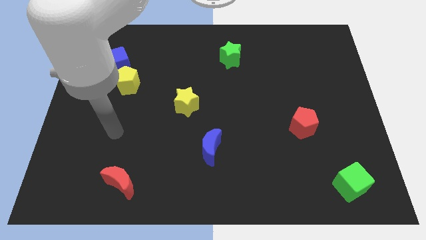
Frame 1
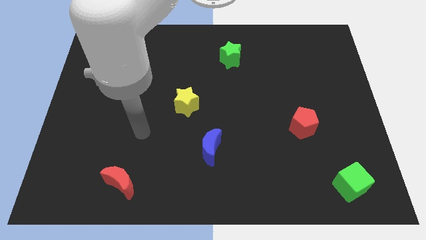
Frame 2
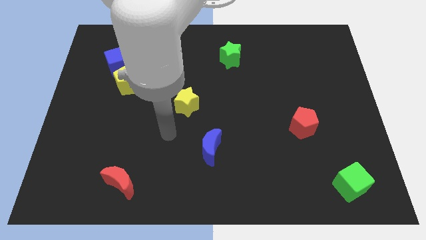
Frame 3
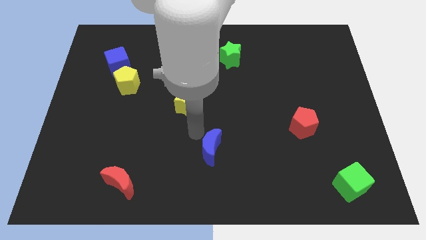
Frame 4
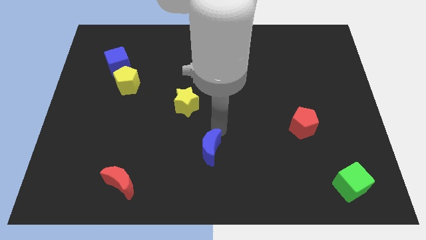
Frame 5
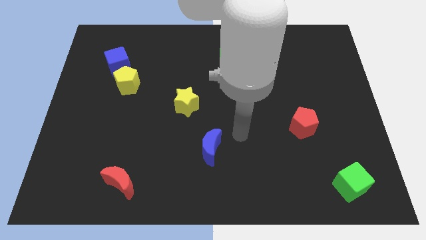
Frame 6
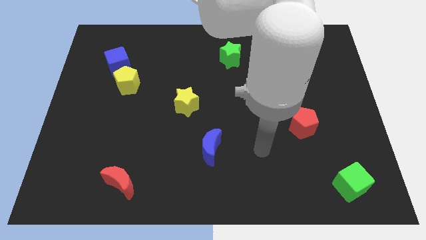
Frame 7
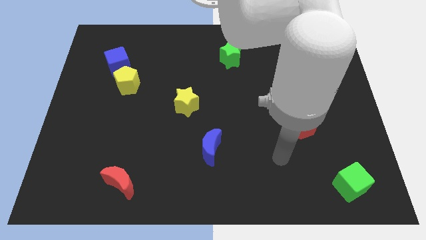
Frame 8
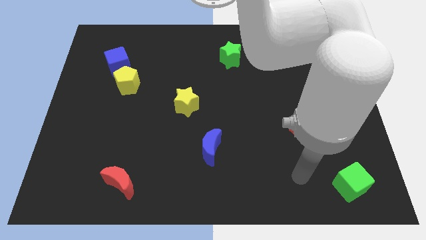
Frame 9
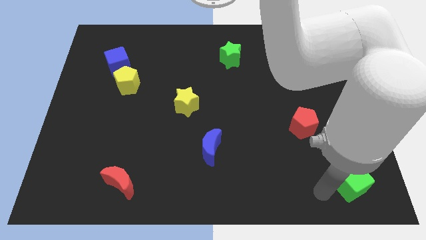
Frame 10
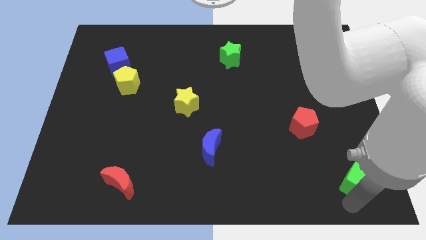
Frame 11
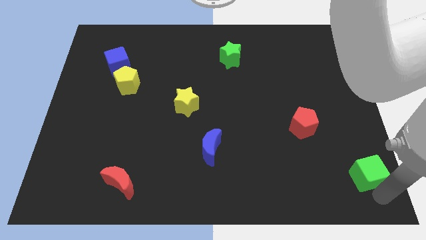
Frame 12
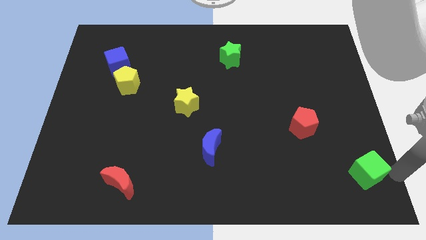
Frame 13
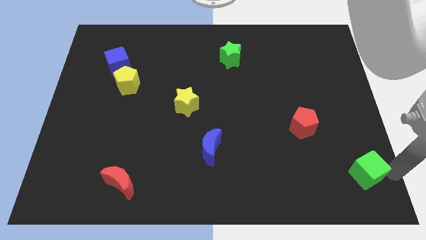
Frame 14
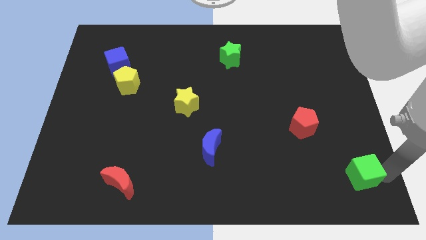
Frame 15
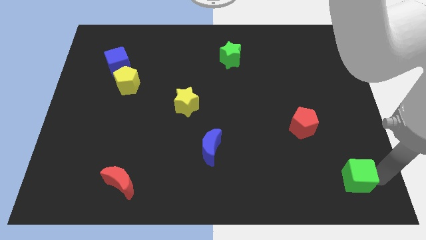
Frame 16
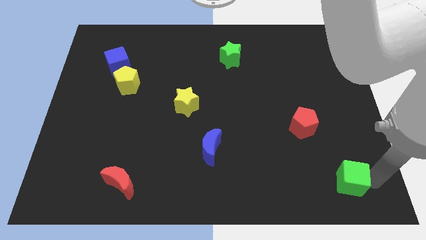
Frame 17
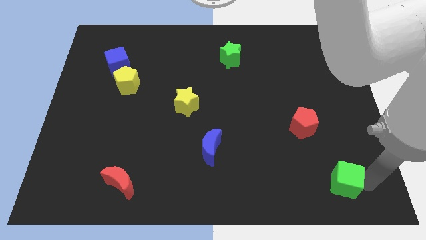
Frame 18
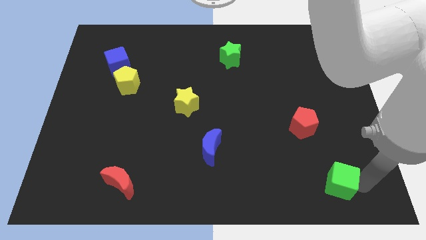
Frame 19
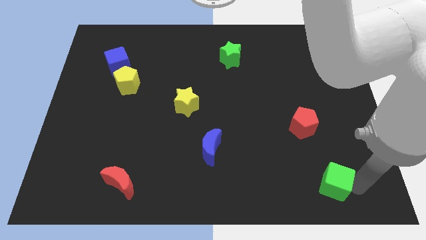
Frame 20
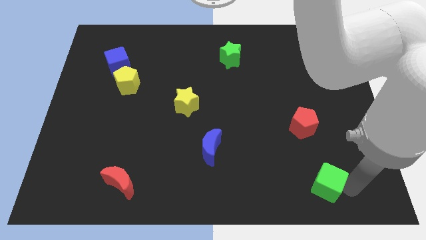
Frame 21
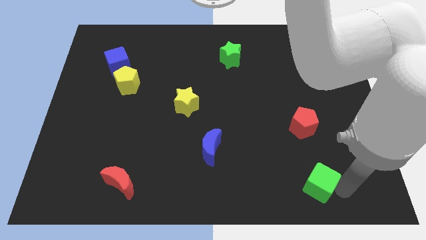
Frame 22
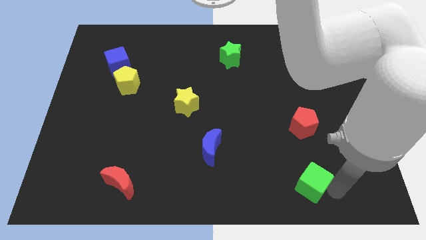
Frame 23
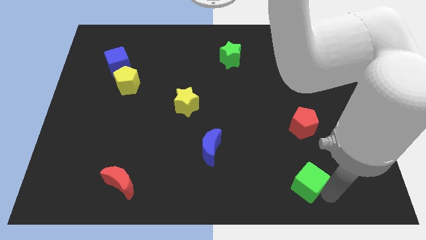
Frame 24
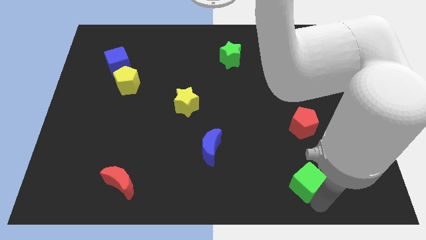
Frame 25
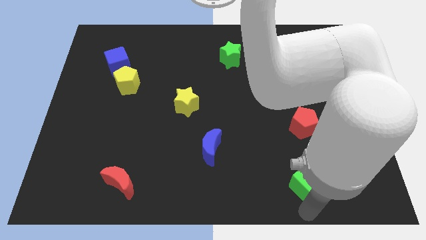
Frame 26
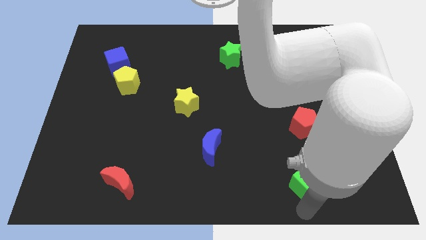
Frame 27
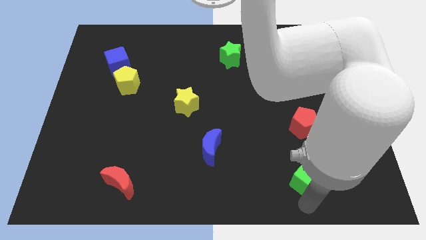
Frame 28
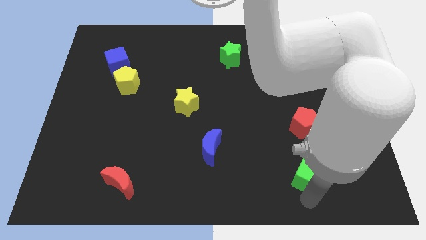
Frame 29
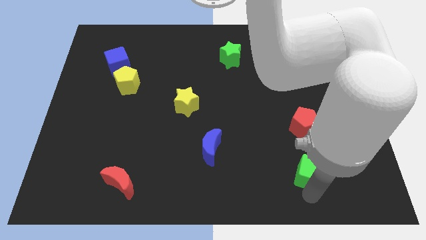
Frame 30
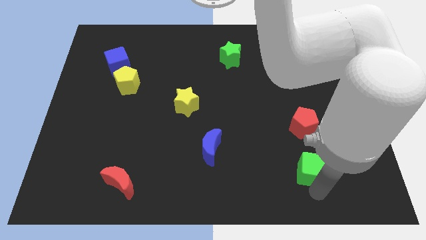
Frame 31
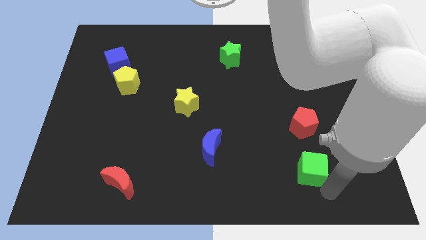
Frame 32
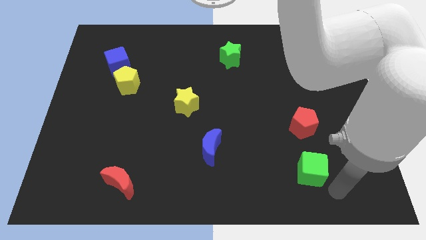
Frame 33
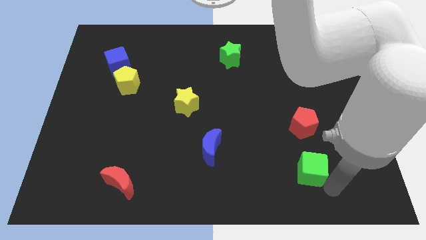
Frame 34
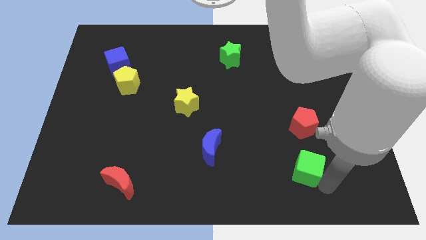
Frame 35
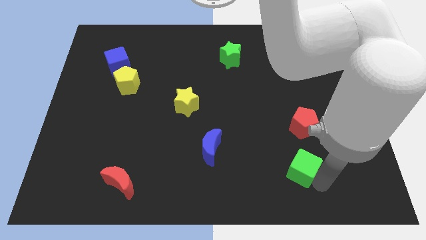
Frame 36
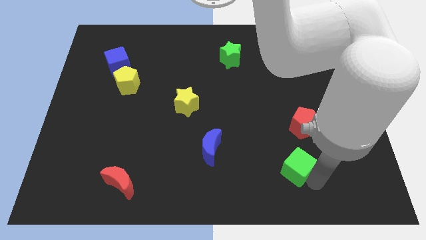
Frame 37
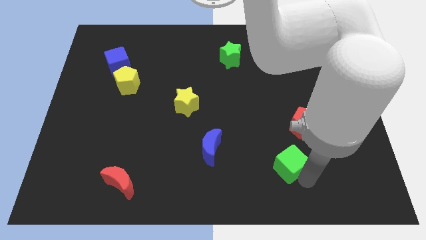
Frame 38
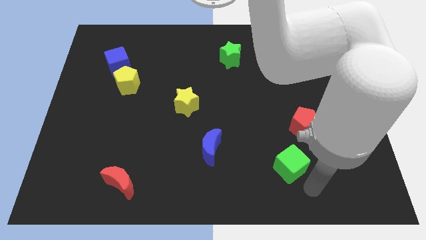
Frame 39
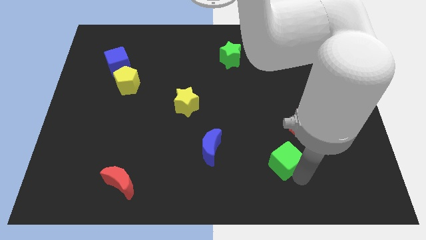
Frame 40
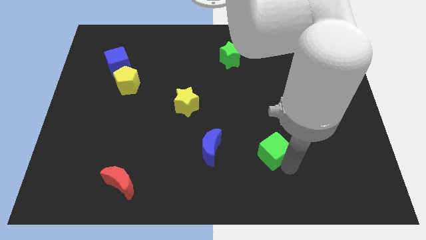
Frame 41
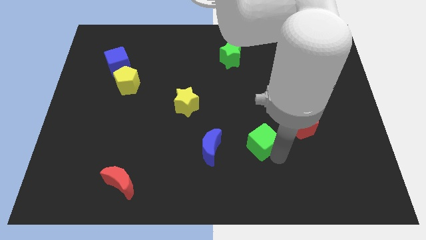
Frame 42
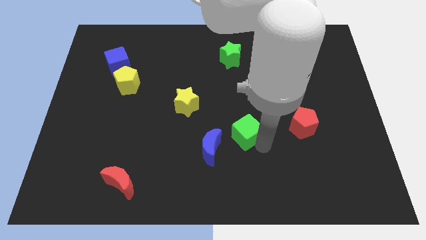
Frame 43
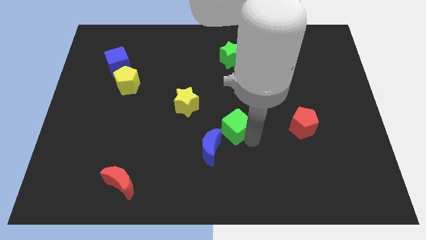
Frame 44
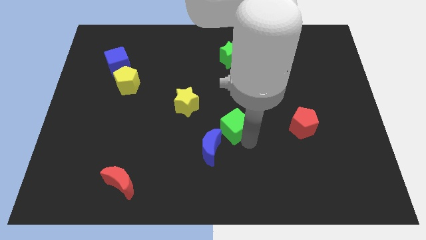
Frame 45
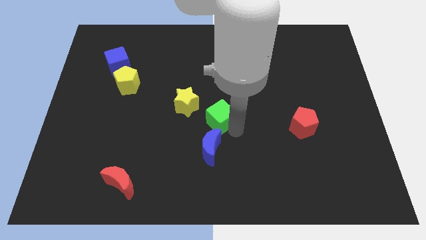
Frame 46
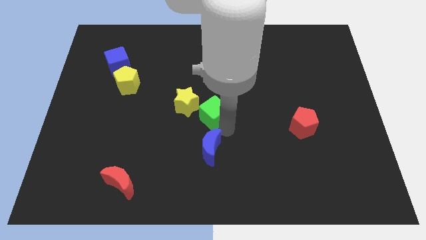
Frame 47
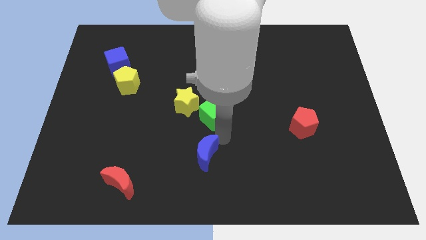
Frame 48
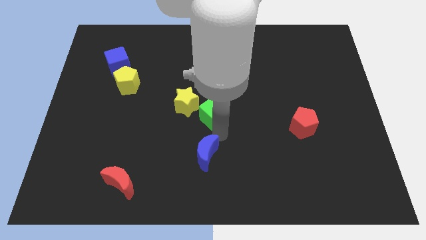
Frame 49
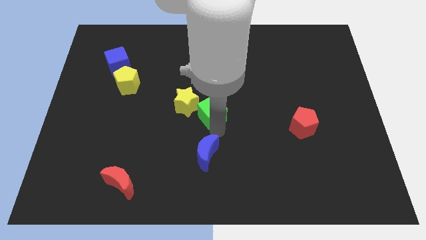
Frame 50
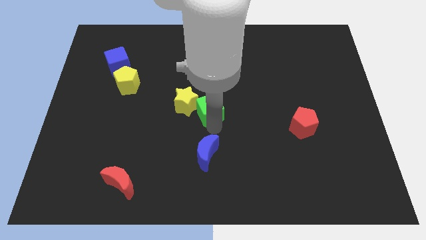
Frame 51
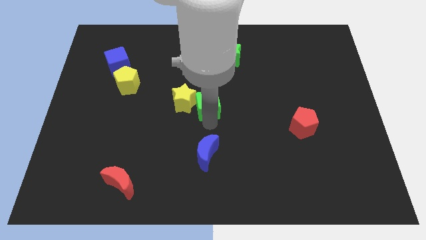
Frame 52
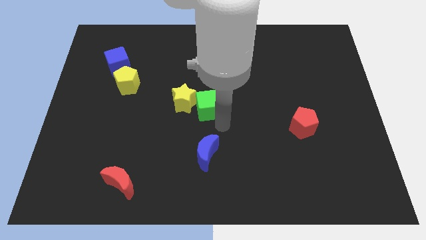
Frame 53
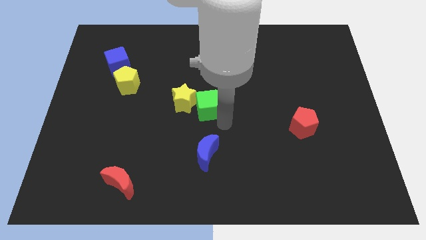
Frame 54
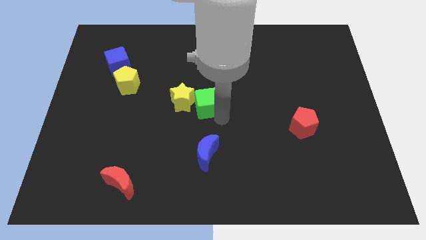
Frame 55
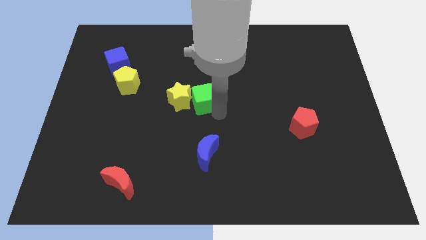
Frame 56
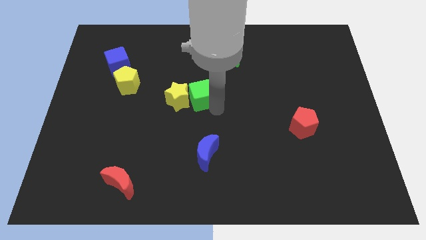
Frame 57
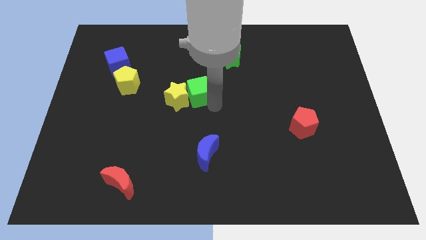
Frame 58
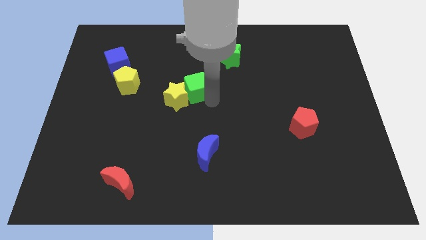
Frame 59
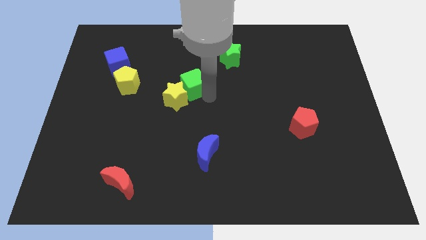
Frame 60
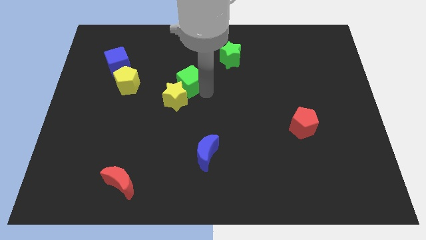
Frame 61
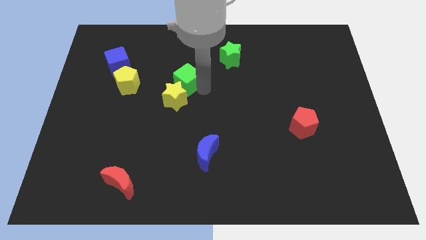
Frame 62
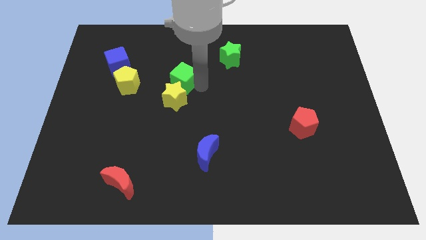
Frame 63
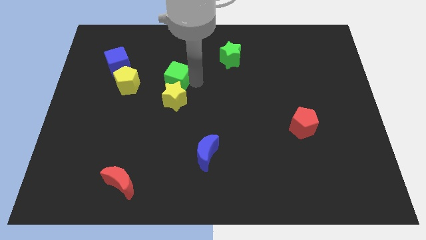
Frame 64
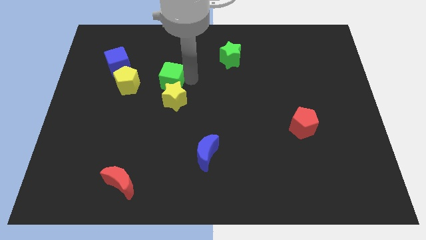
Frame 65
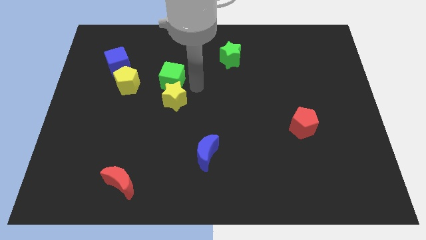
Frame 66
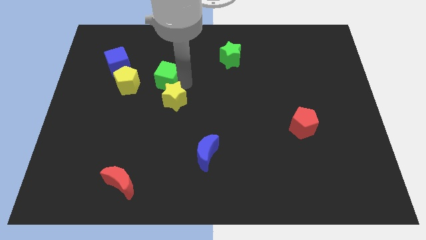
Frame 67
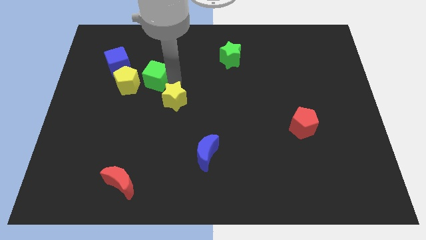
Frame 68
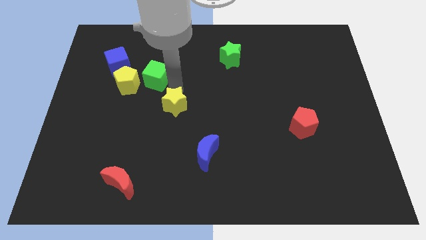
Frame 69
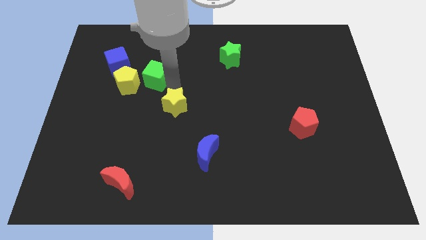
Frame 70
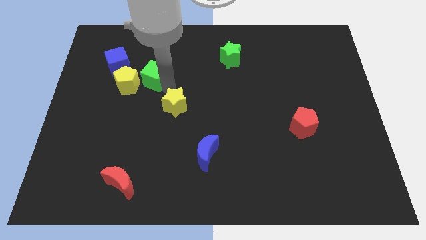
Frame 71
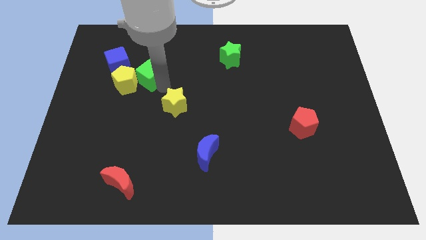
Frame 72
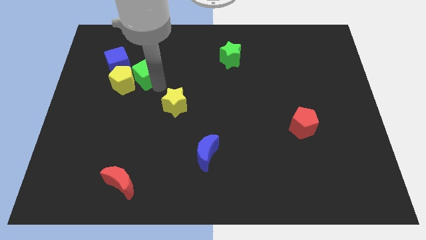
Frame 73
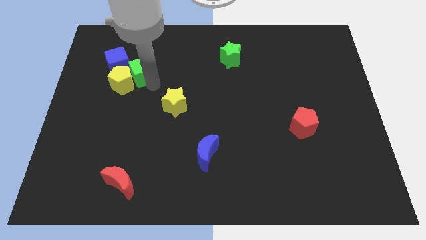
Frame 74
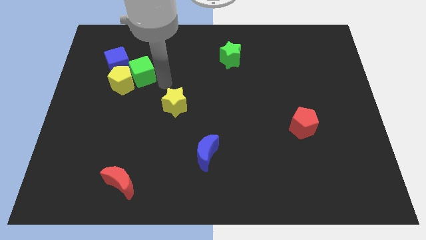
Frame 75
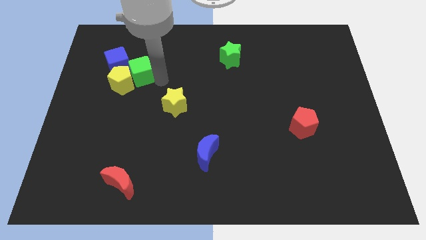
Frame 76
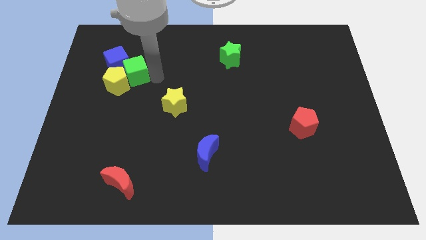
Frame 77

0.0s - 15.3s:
move the green cube towards the blue cube
